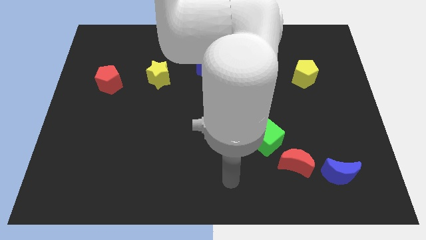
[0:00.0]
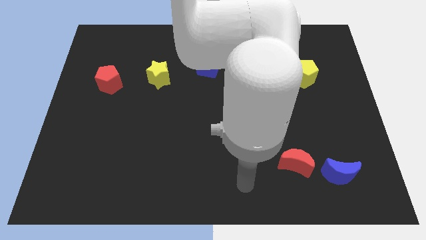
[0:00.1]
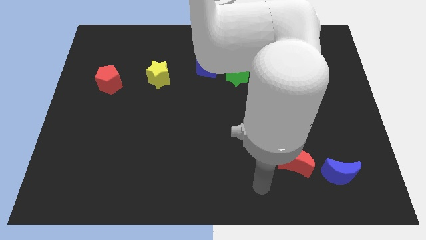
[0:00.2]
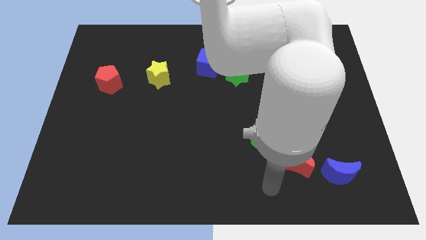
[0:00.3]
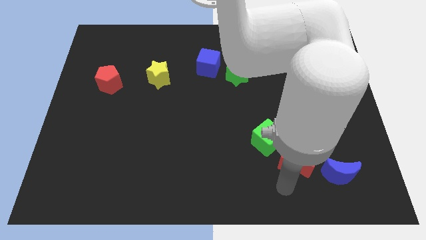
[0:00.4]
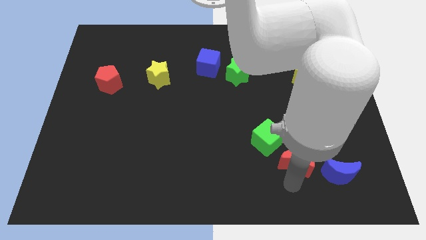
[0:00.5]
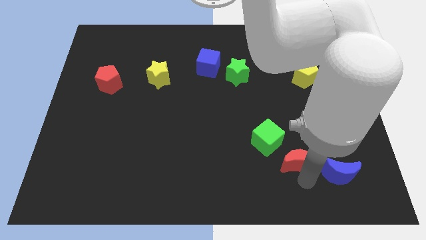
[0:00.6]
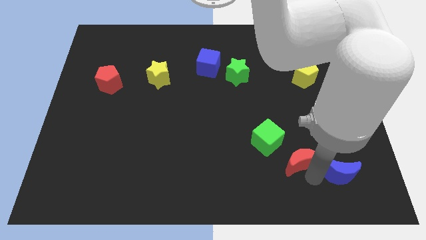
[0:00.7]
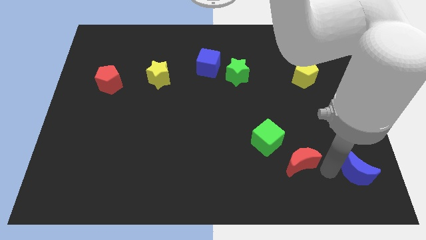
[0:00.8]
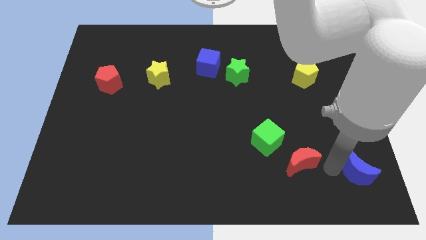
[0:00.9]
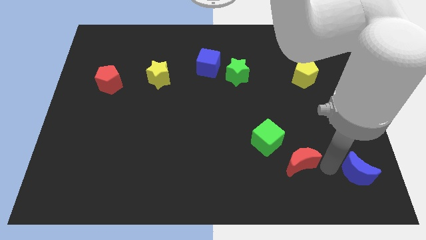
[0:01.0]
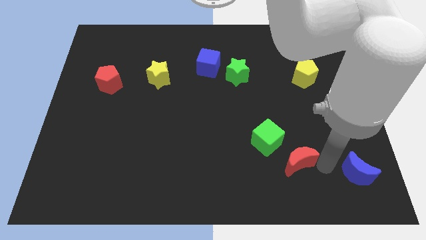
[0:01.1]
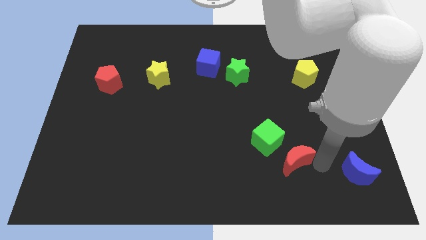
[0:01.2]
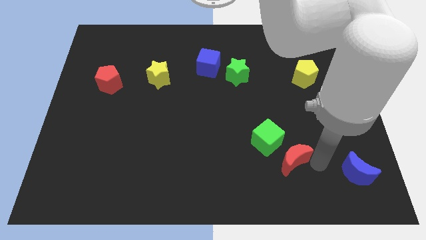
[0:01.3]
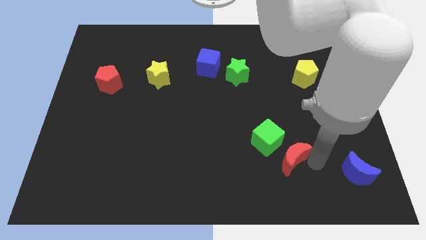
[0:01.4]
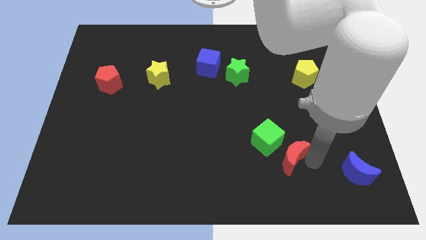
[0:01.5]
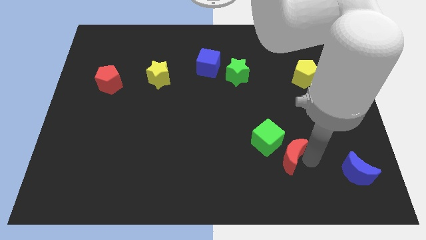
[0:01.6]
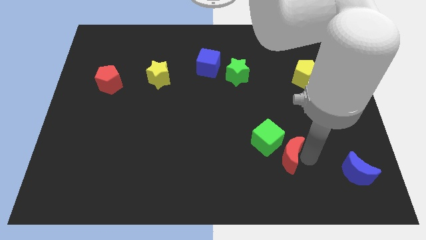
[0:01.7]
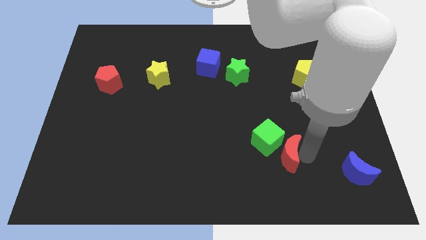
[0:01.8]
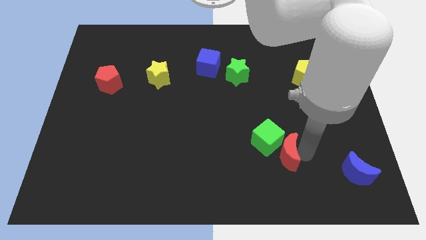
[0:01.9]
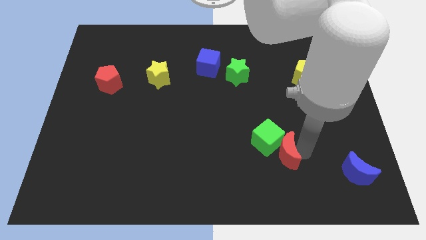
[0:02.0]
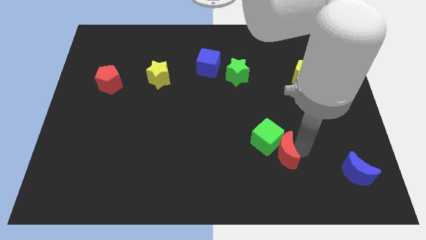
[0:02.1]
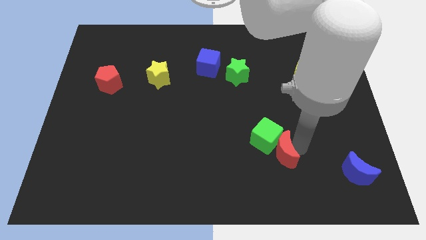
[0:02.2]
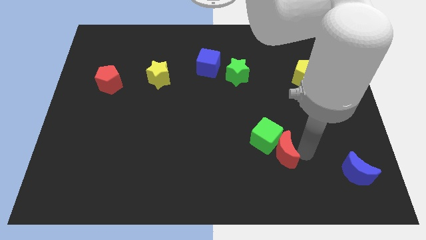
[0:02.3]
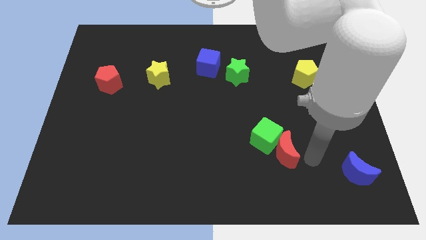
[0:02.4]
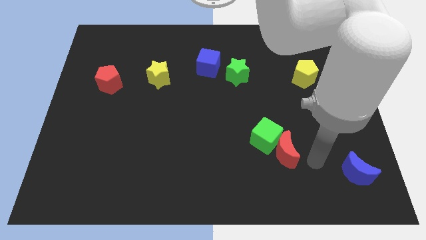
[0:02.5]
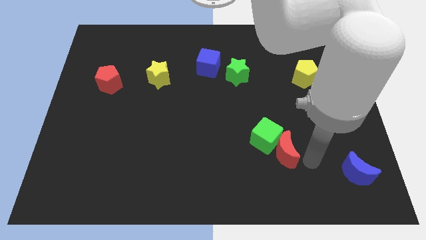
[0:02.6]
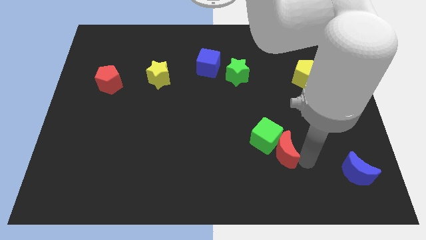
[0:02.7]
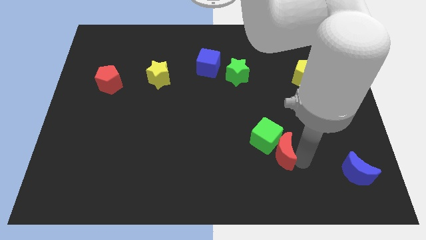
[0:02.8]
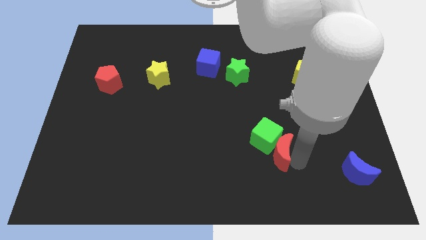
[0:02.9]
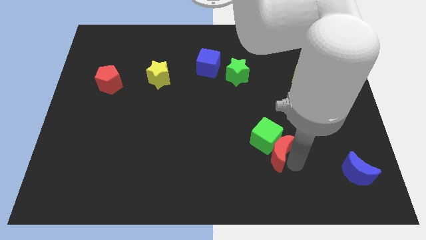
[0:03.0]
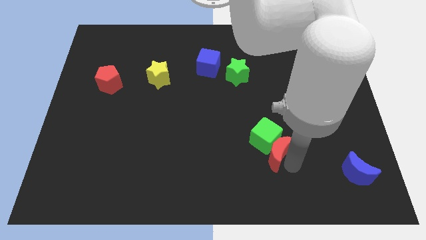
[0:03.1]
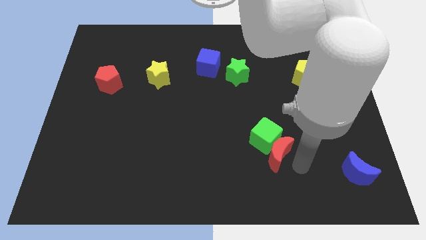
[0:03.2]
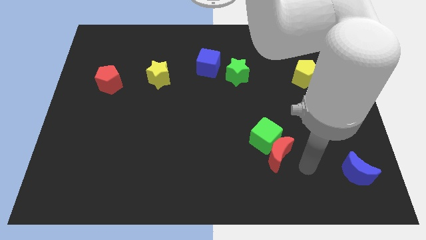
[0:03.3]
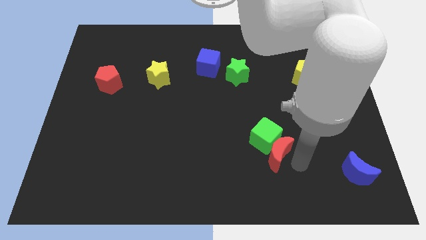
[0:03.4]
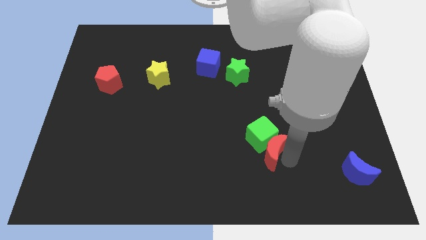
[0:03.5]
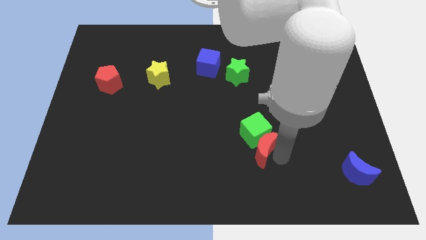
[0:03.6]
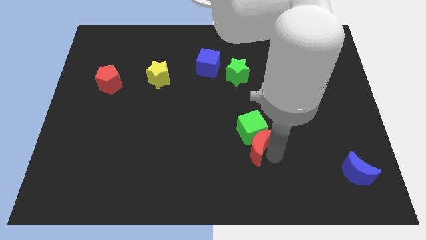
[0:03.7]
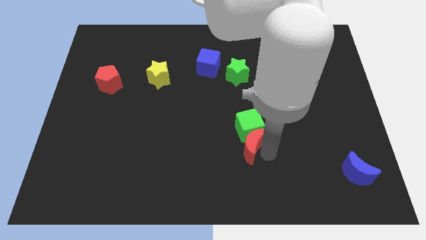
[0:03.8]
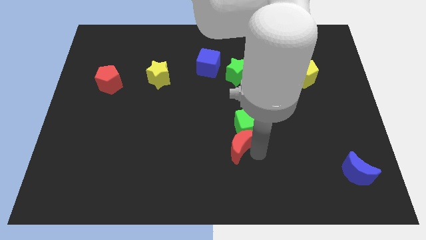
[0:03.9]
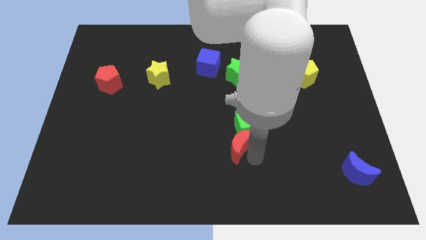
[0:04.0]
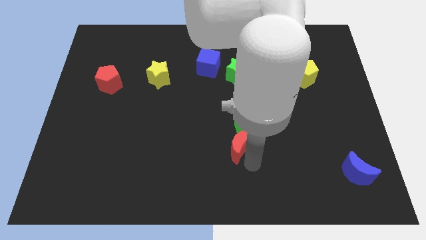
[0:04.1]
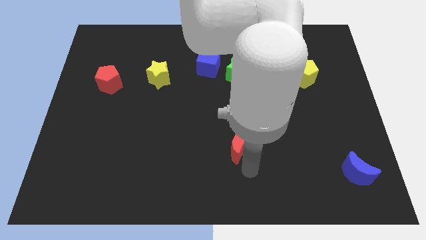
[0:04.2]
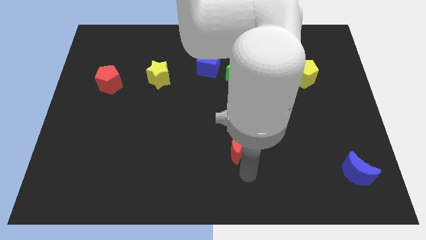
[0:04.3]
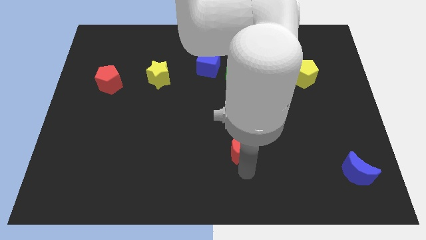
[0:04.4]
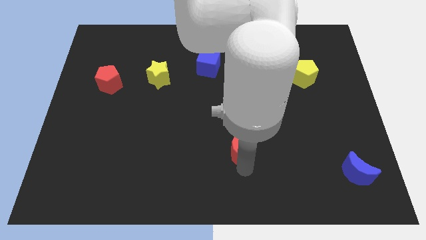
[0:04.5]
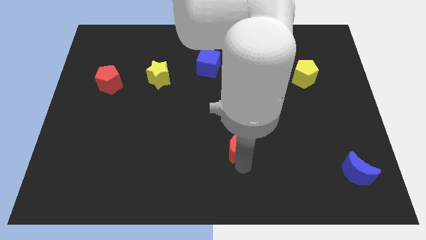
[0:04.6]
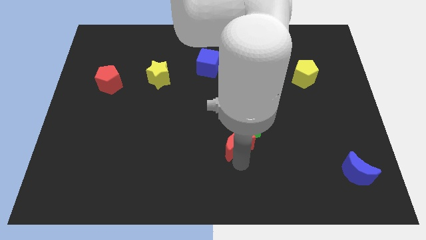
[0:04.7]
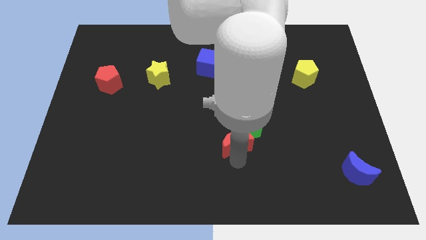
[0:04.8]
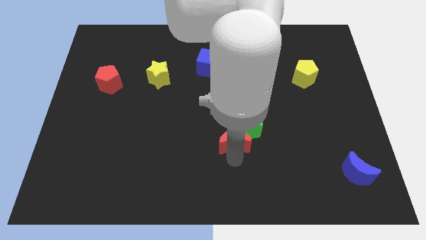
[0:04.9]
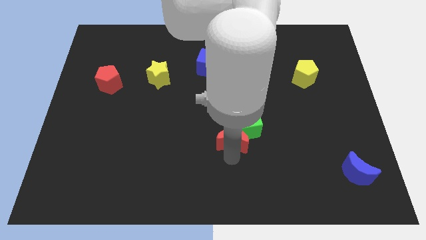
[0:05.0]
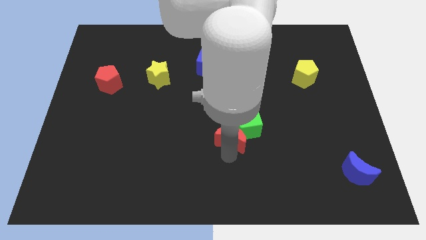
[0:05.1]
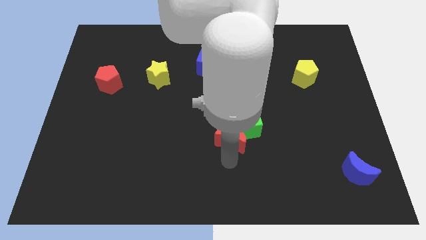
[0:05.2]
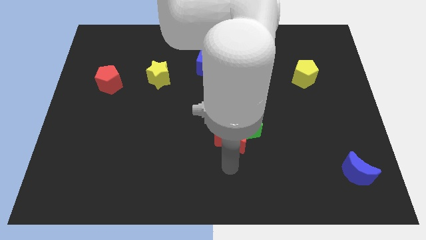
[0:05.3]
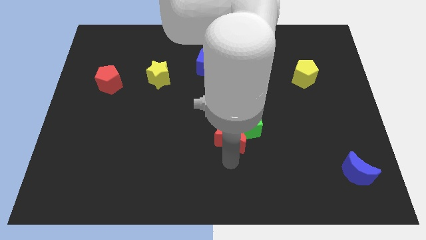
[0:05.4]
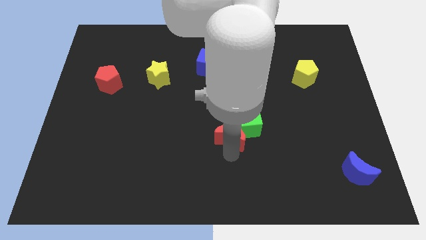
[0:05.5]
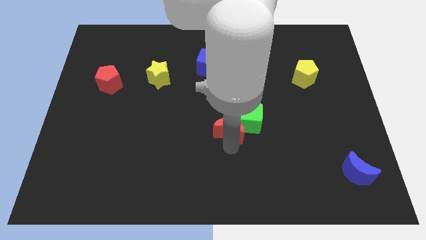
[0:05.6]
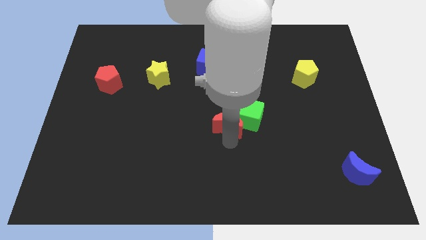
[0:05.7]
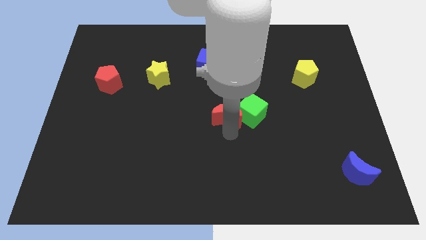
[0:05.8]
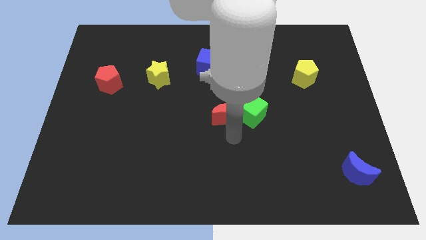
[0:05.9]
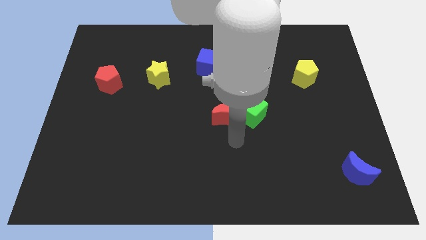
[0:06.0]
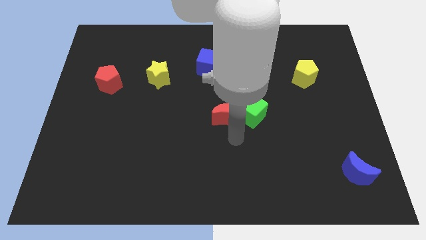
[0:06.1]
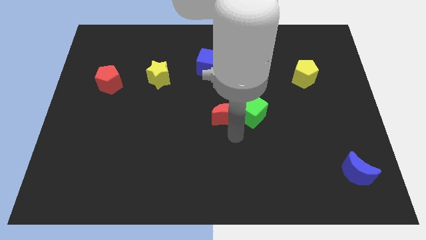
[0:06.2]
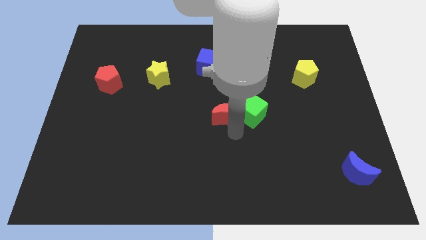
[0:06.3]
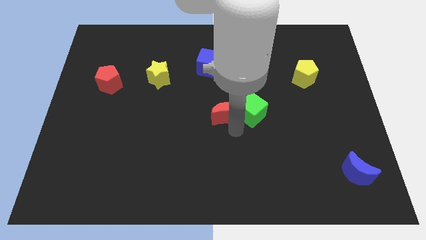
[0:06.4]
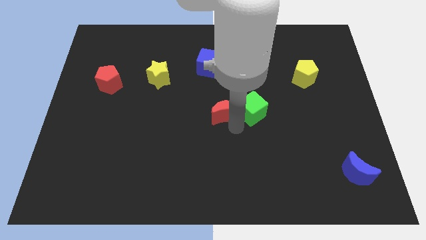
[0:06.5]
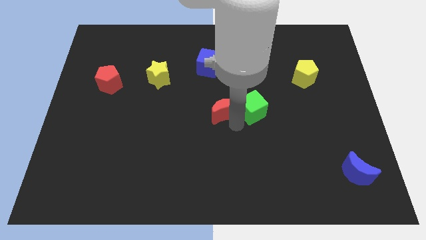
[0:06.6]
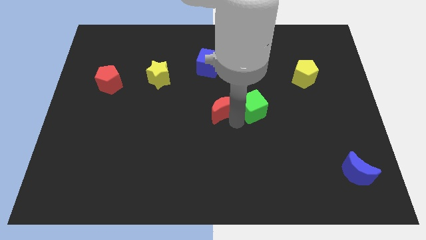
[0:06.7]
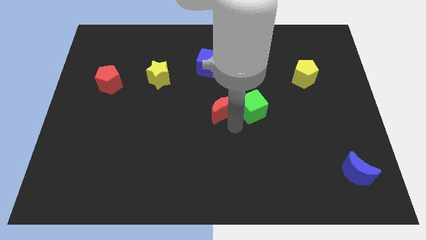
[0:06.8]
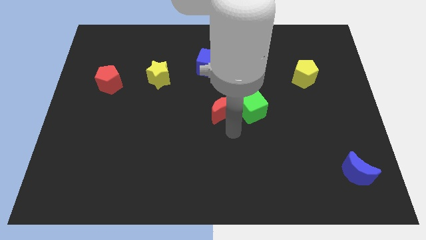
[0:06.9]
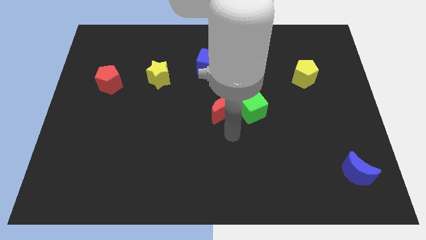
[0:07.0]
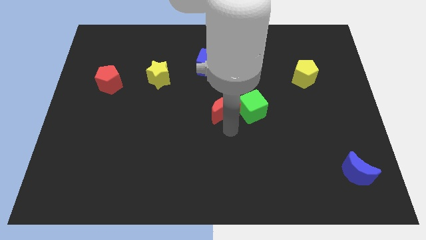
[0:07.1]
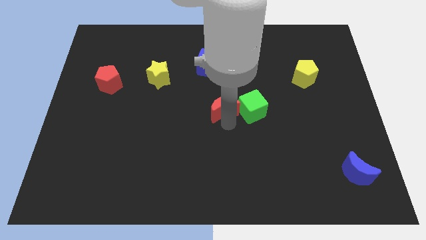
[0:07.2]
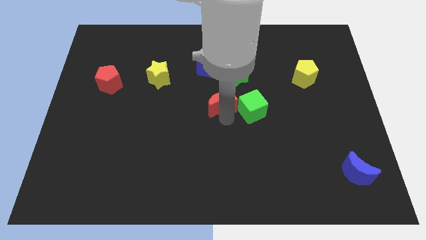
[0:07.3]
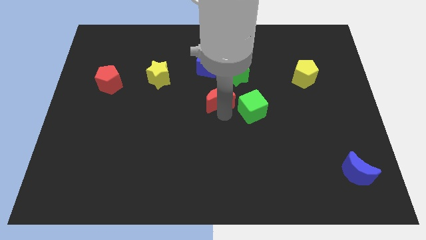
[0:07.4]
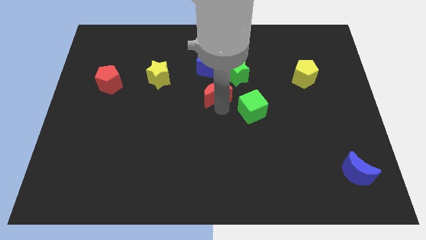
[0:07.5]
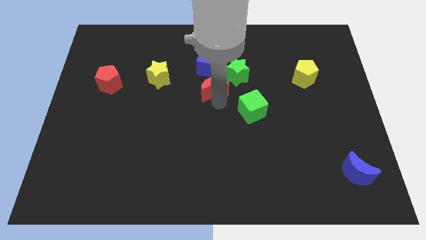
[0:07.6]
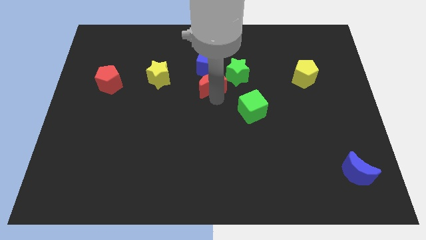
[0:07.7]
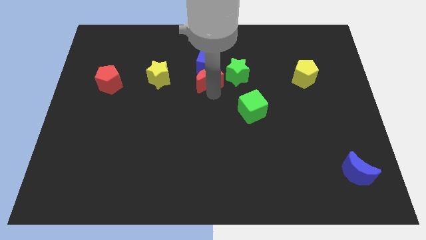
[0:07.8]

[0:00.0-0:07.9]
push the red moon towards the blue cube
